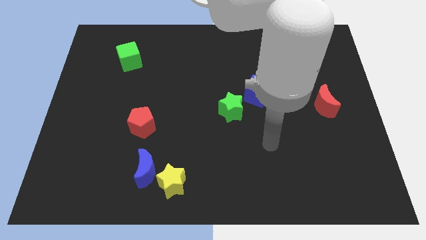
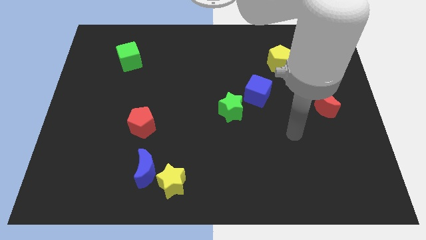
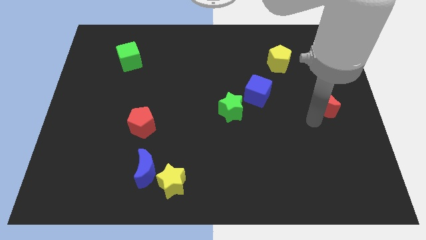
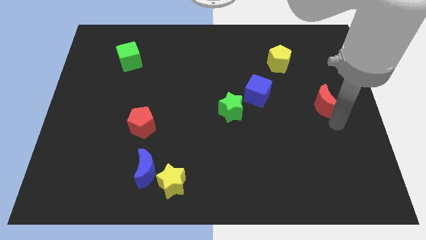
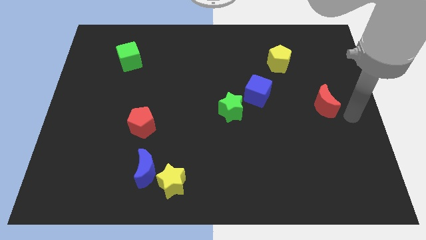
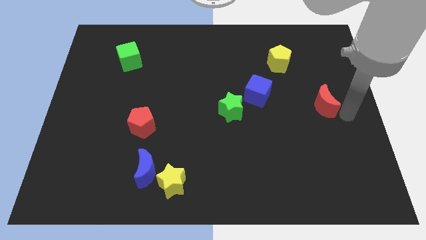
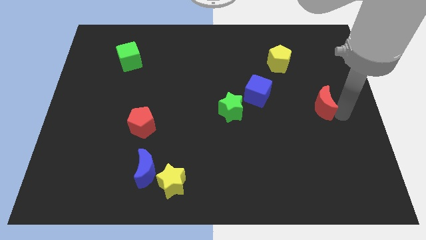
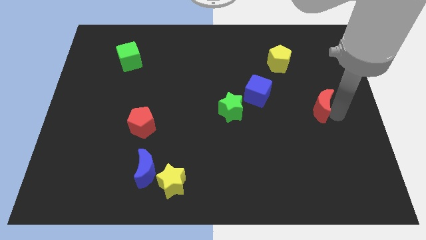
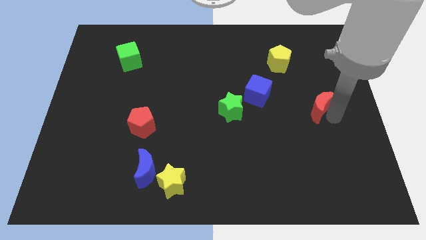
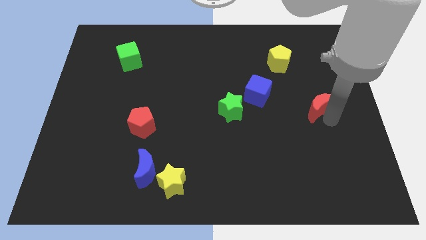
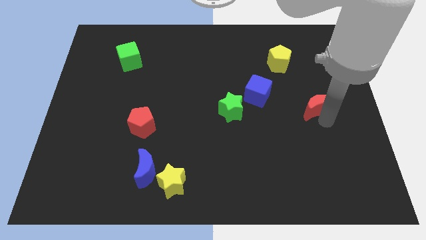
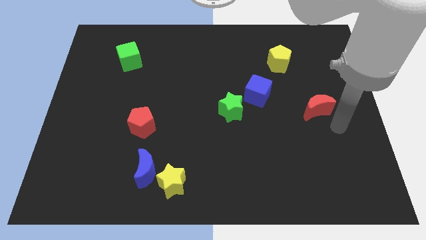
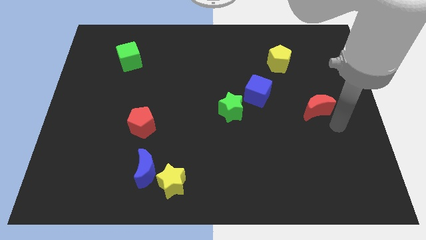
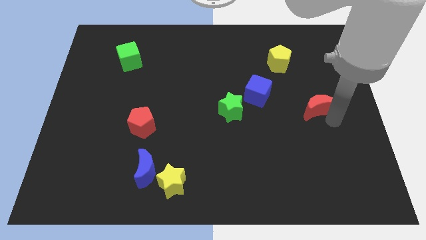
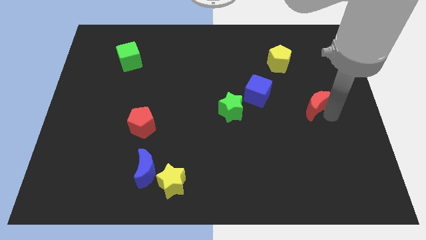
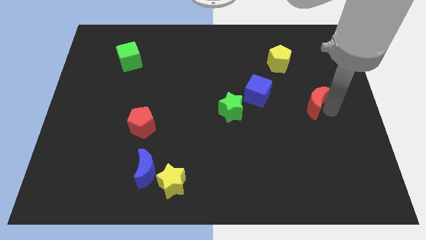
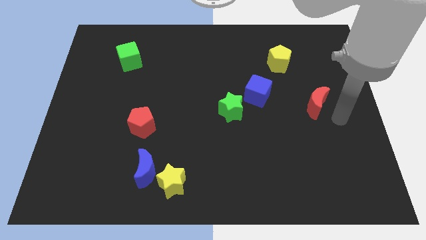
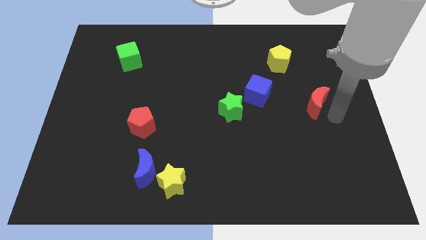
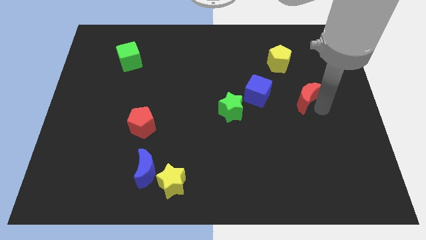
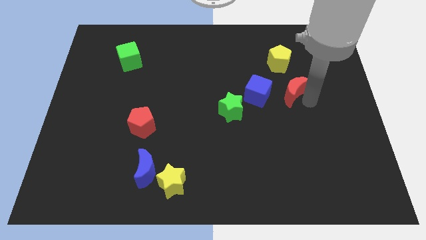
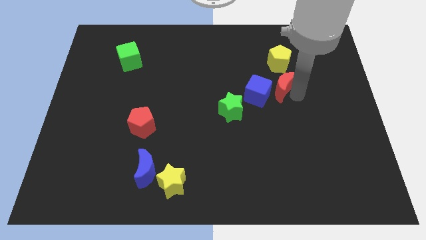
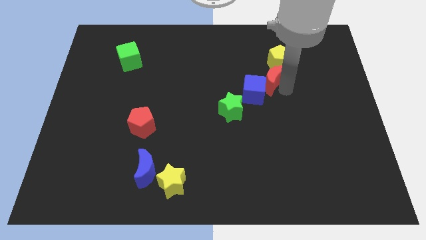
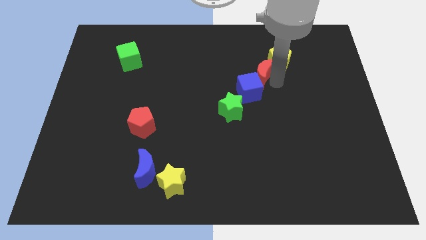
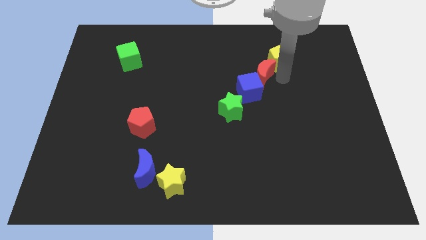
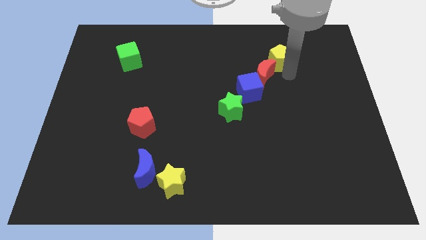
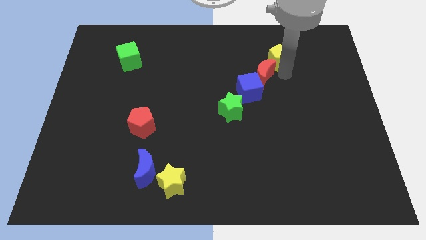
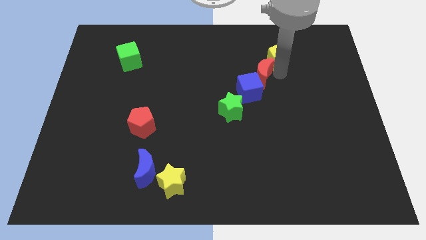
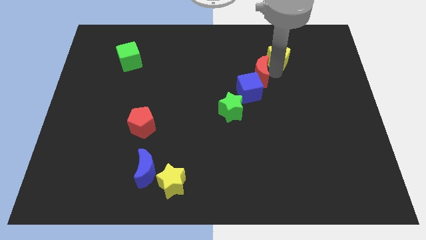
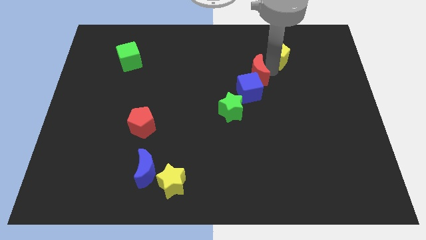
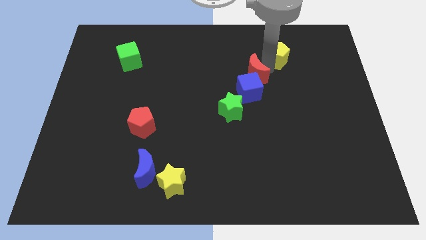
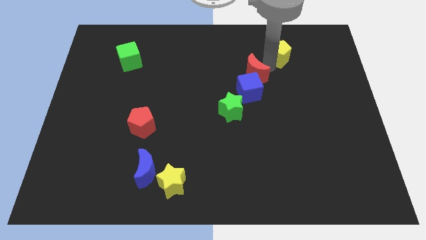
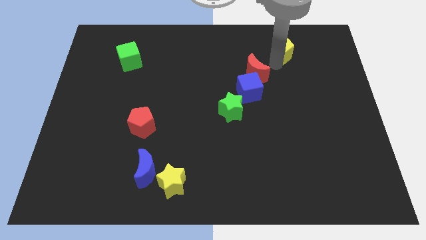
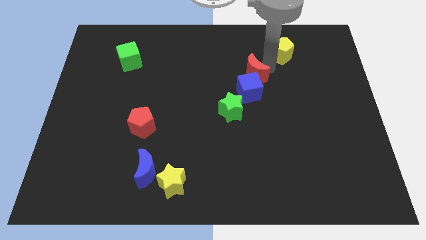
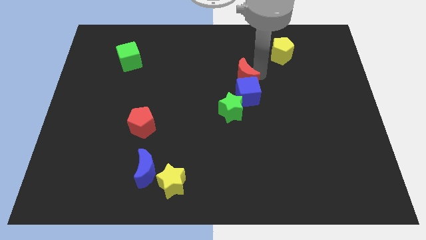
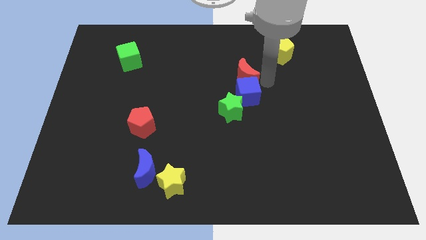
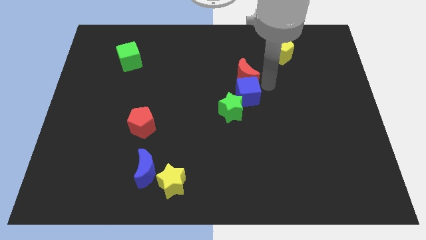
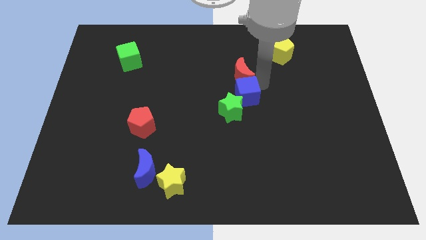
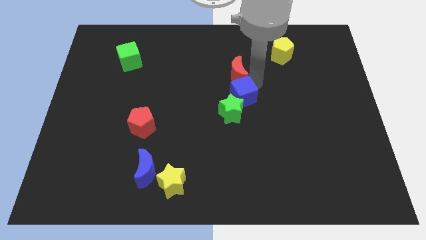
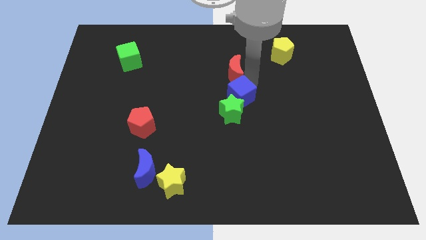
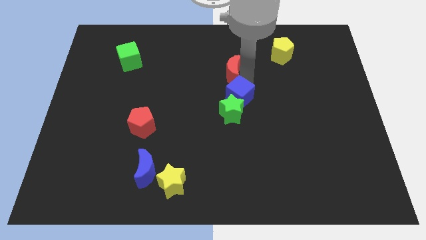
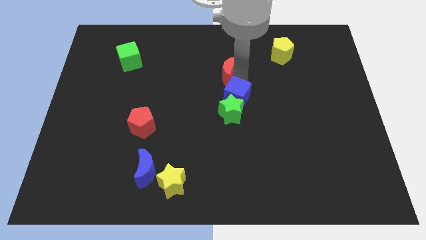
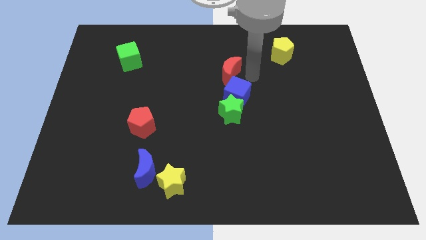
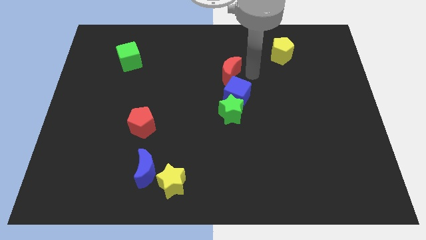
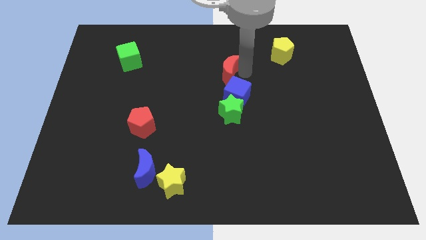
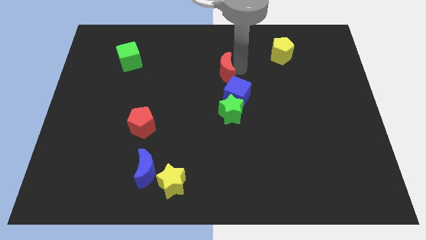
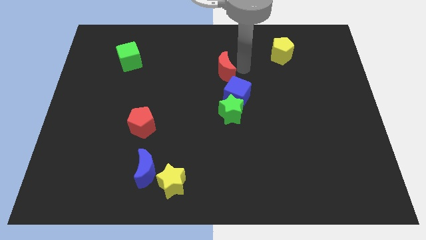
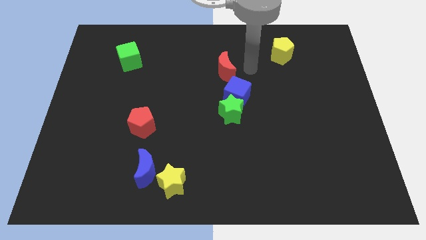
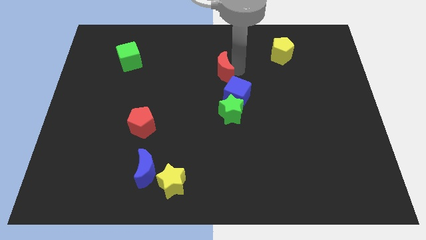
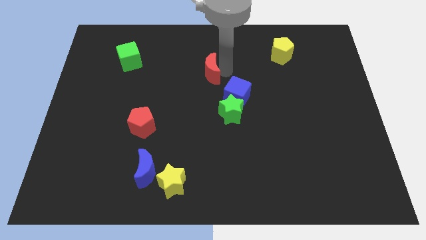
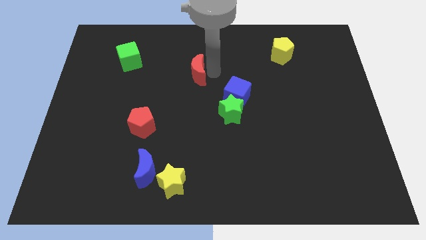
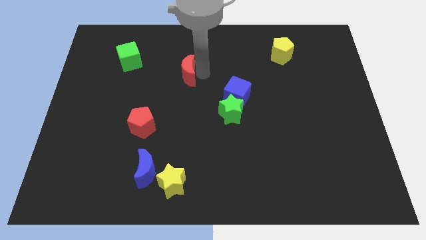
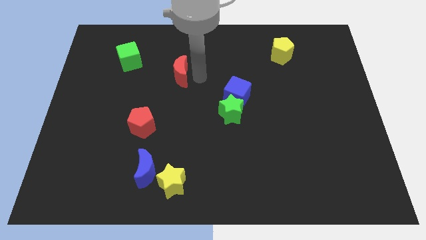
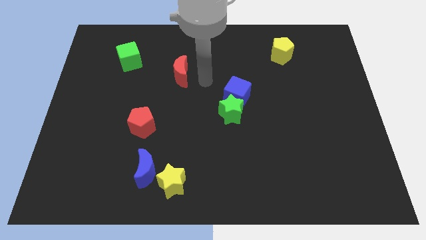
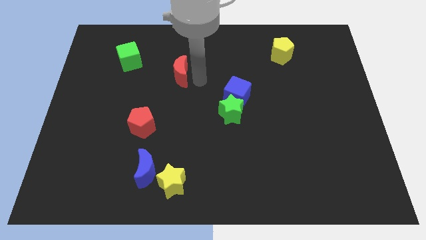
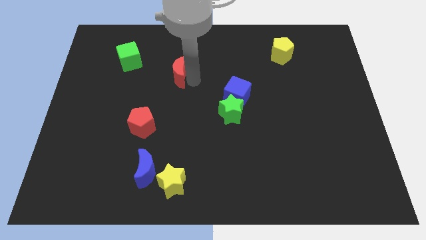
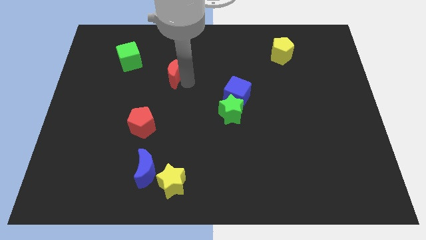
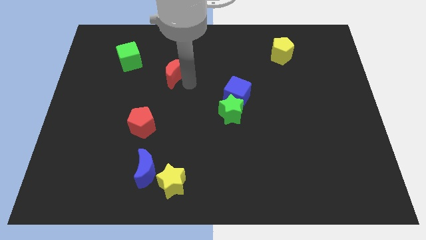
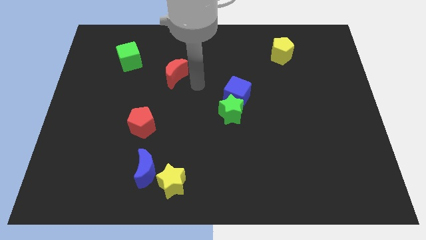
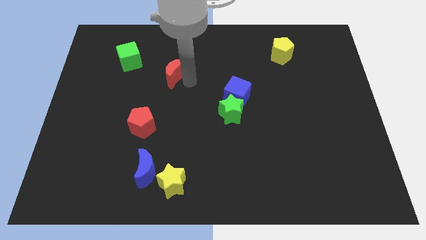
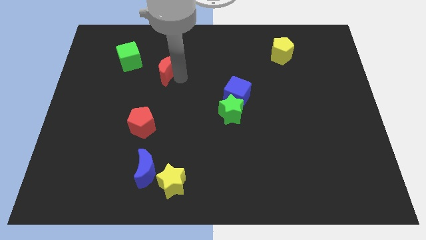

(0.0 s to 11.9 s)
move the red moon to the bottom right of the green cube

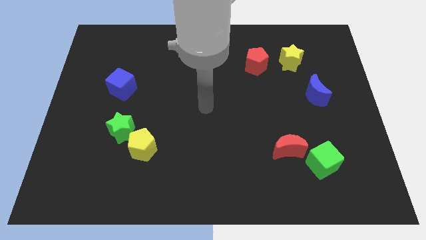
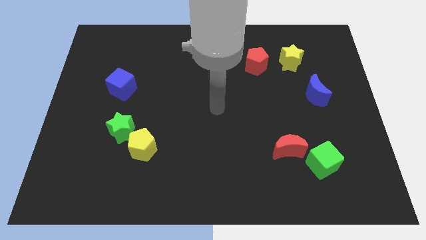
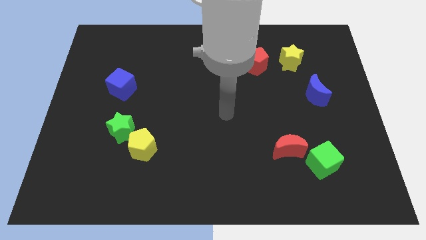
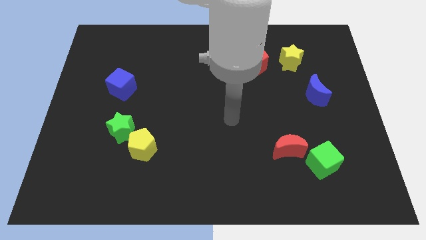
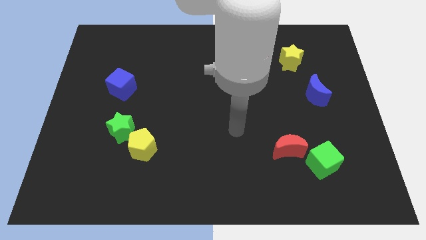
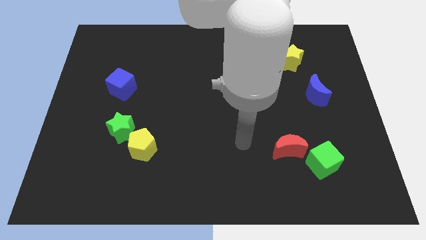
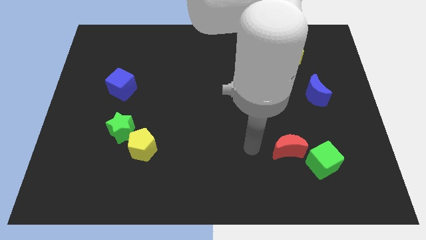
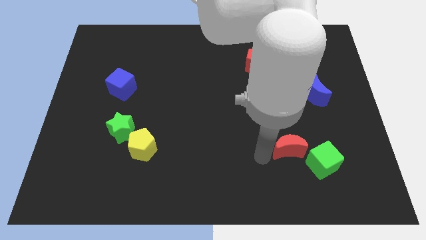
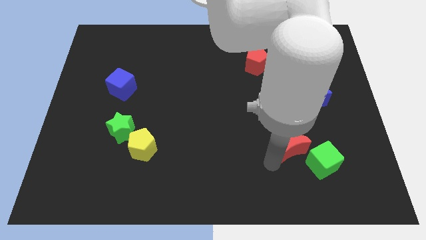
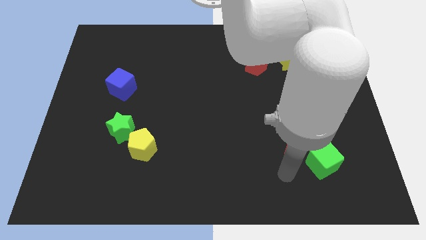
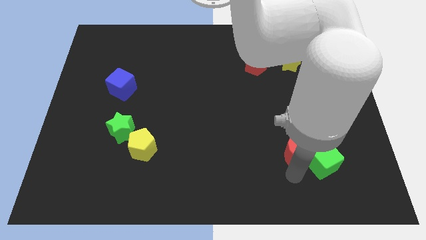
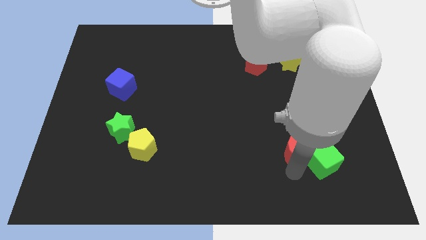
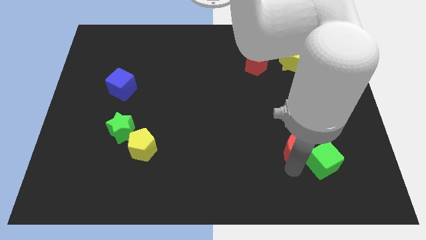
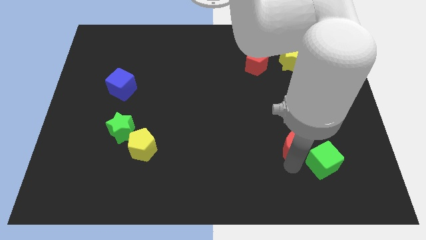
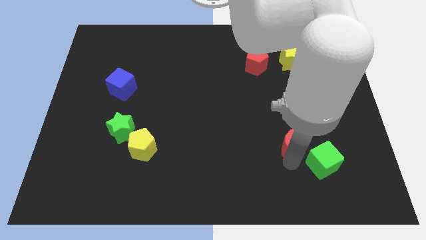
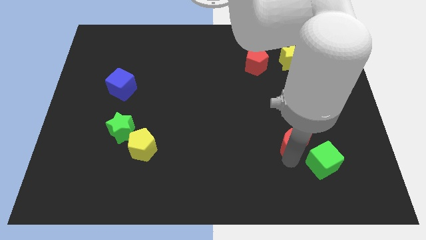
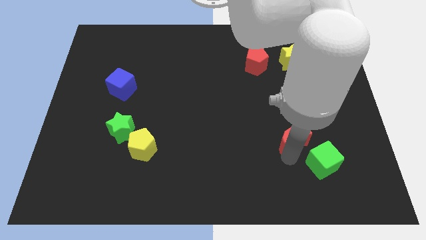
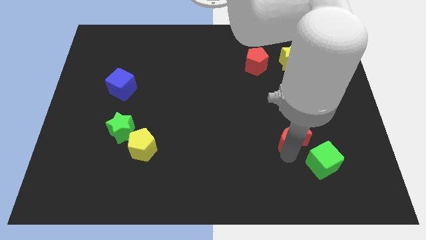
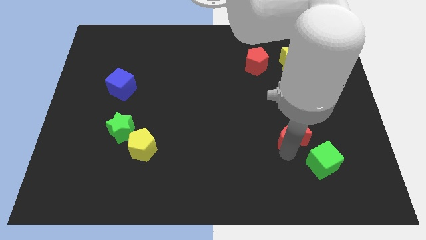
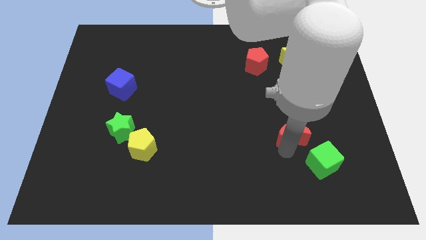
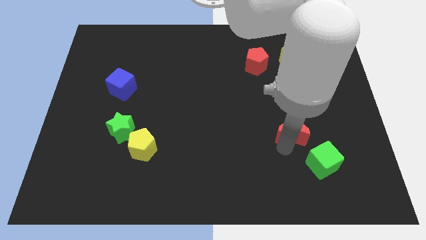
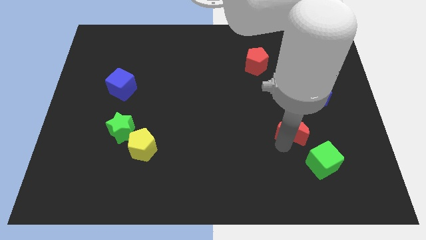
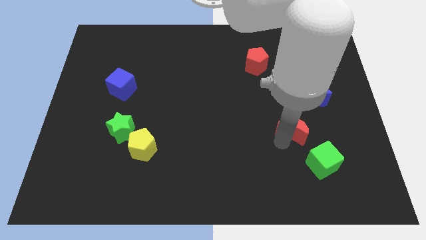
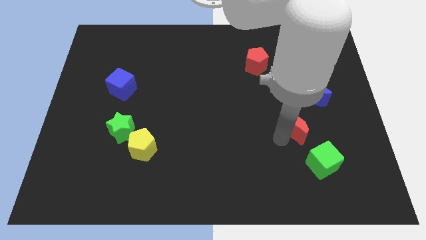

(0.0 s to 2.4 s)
move the red moon to the bottom left side of the blue moon
